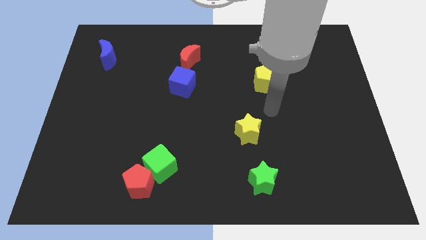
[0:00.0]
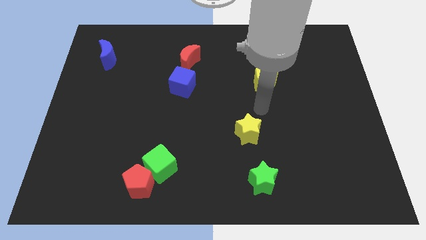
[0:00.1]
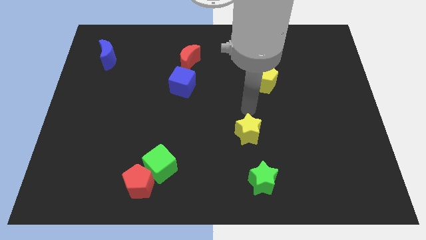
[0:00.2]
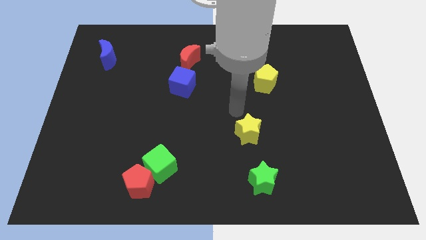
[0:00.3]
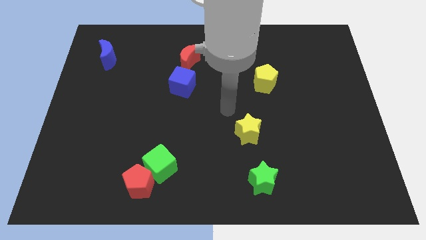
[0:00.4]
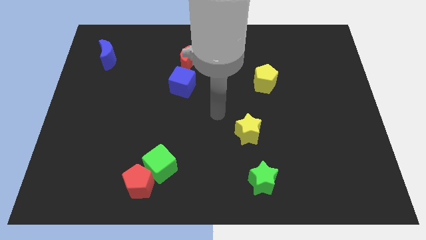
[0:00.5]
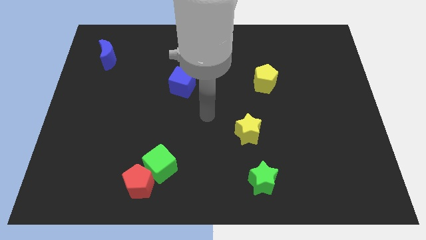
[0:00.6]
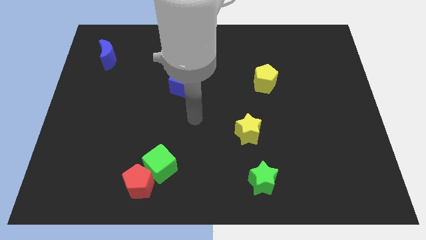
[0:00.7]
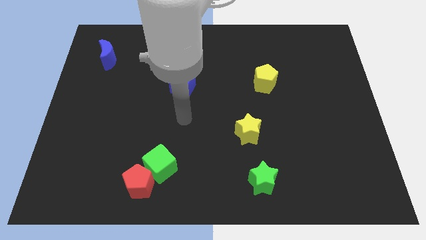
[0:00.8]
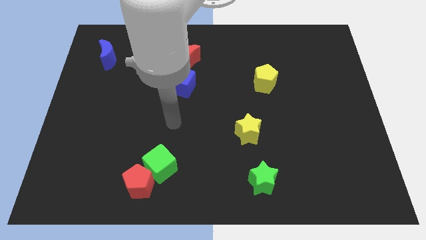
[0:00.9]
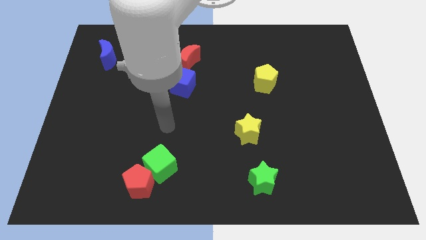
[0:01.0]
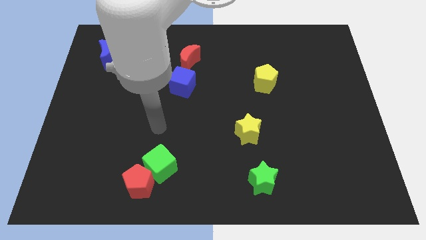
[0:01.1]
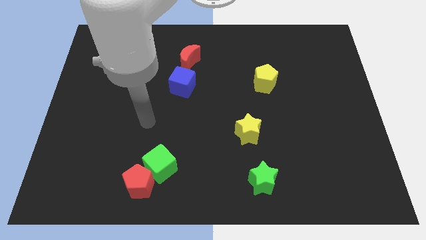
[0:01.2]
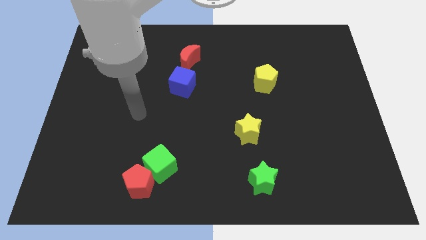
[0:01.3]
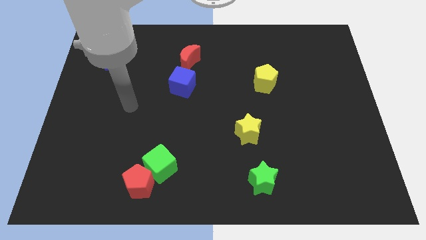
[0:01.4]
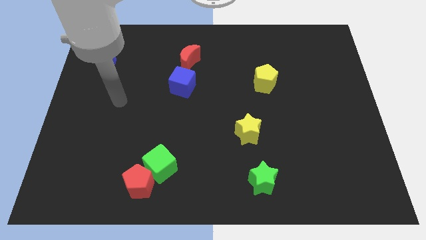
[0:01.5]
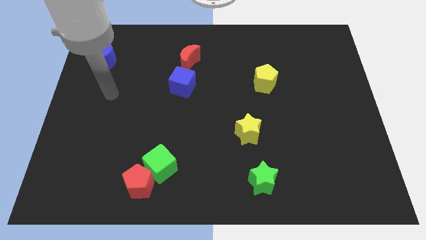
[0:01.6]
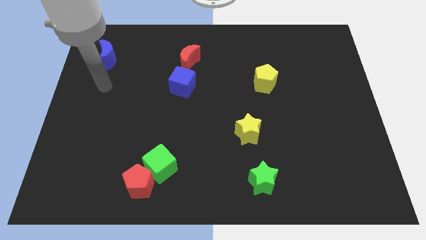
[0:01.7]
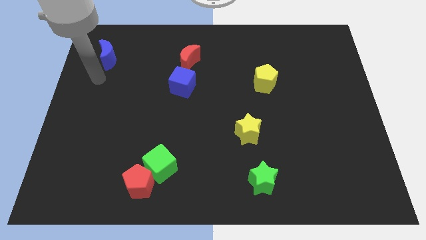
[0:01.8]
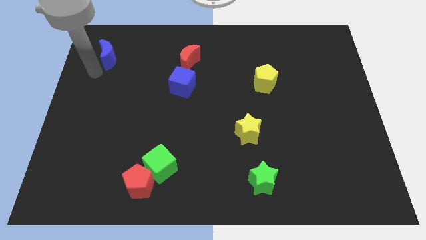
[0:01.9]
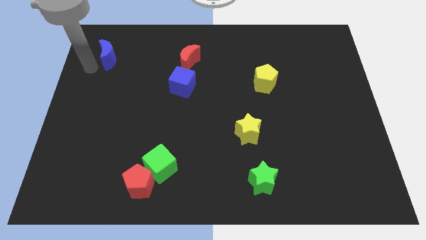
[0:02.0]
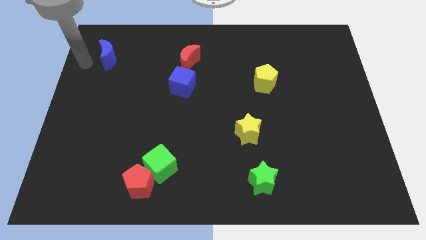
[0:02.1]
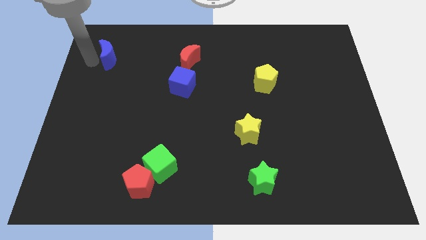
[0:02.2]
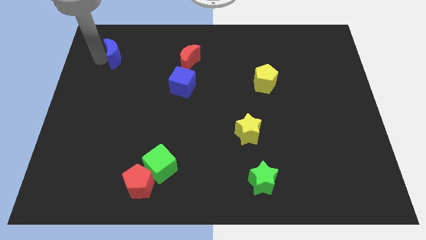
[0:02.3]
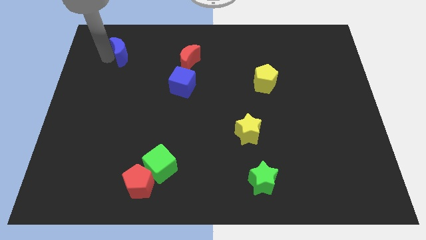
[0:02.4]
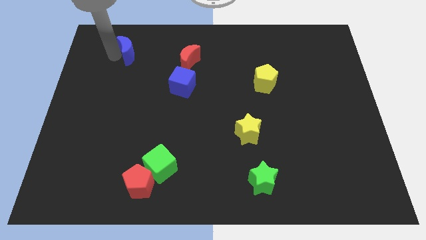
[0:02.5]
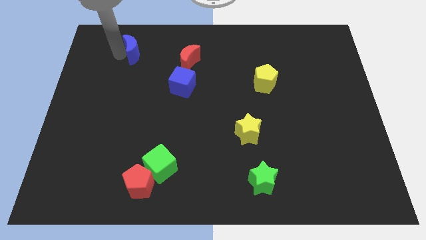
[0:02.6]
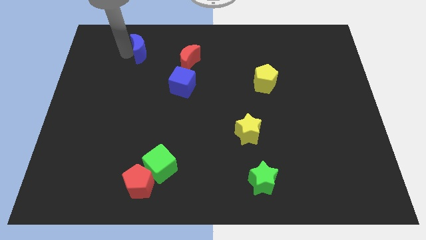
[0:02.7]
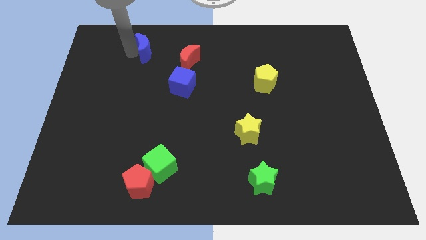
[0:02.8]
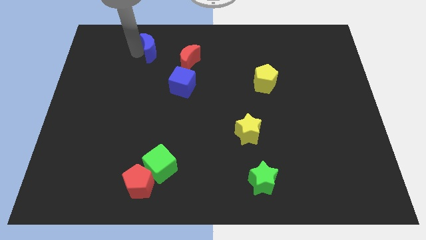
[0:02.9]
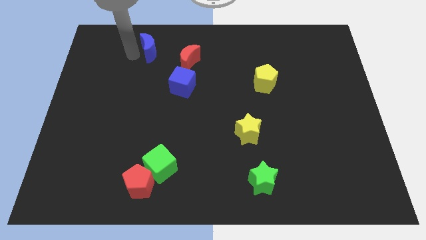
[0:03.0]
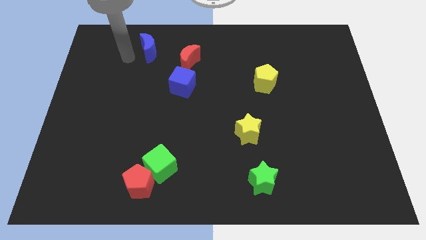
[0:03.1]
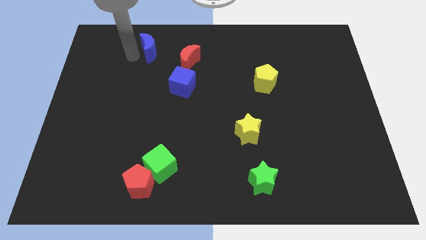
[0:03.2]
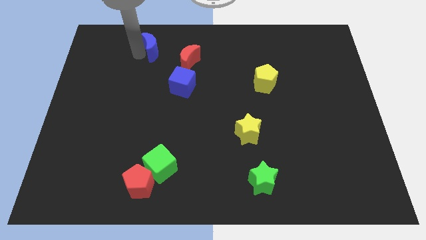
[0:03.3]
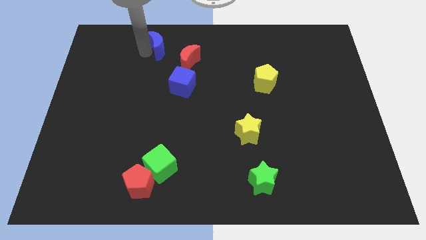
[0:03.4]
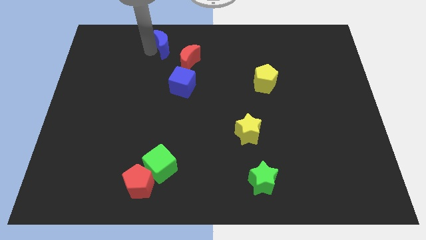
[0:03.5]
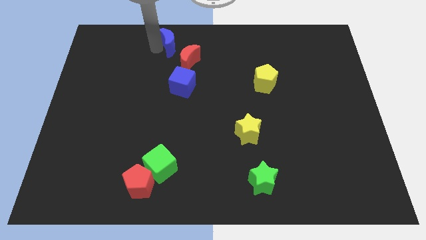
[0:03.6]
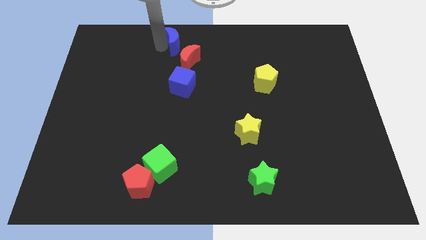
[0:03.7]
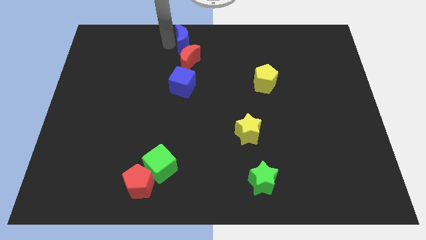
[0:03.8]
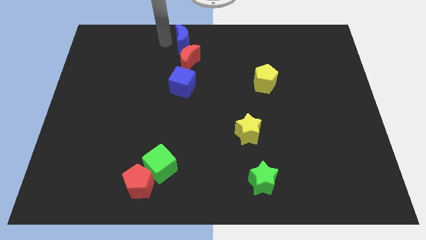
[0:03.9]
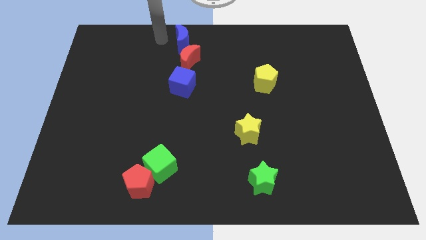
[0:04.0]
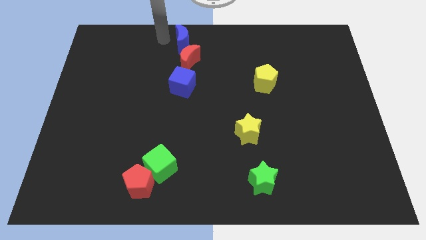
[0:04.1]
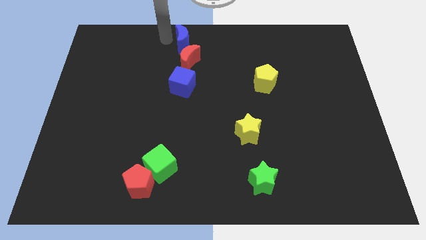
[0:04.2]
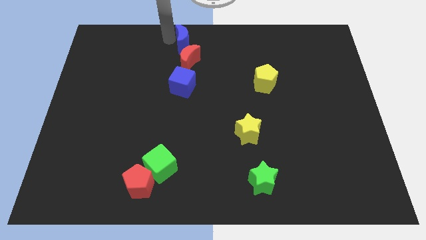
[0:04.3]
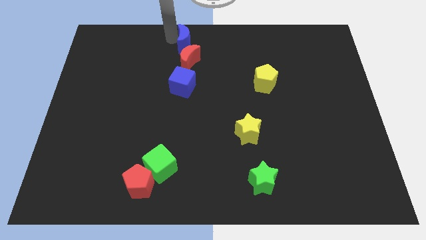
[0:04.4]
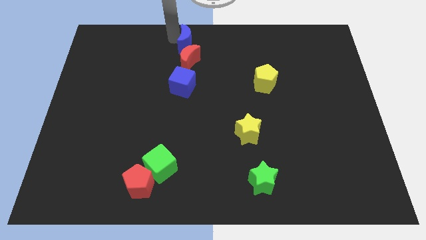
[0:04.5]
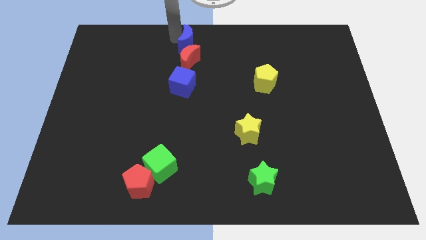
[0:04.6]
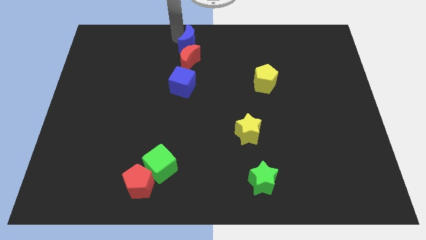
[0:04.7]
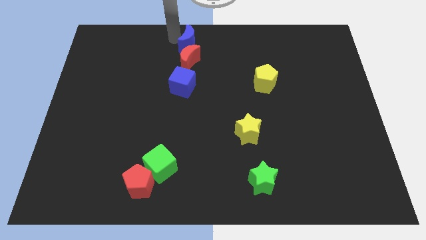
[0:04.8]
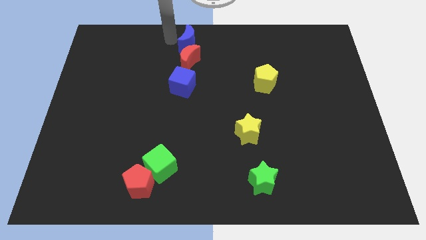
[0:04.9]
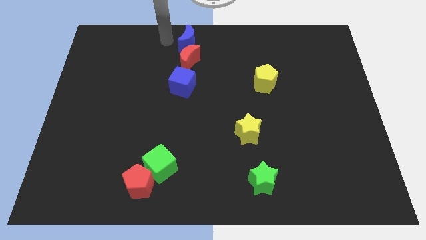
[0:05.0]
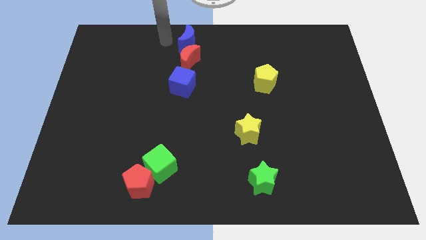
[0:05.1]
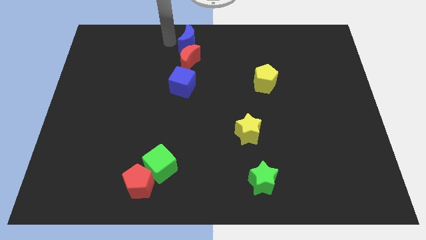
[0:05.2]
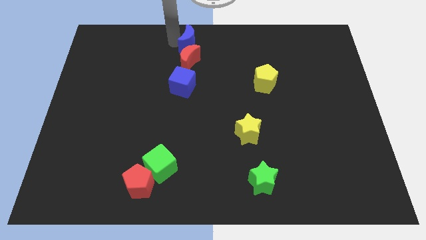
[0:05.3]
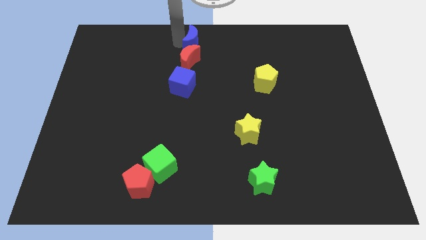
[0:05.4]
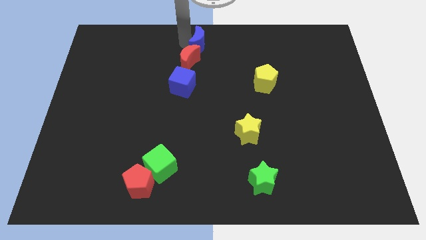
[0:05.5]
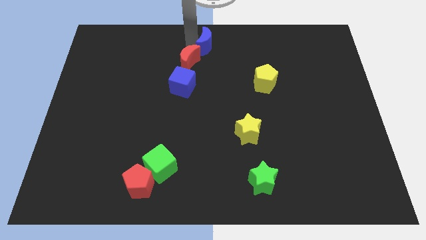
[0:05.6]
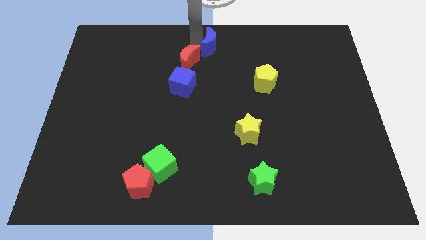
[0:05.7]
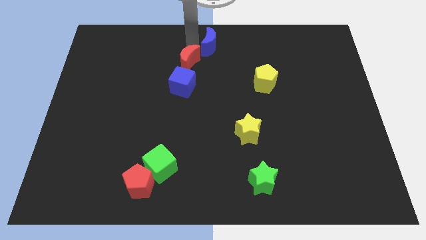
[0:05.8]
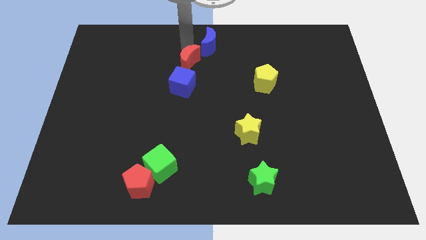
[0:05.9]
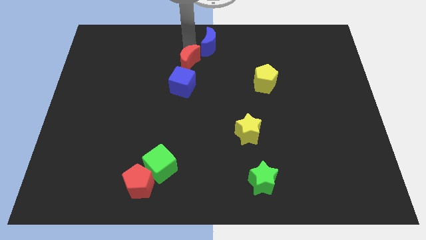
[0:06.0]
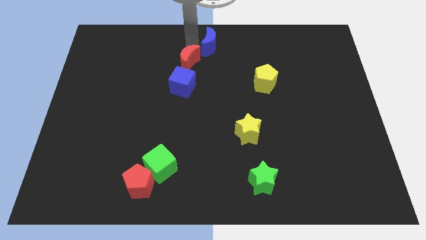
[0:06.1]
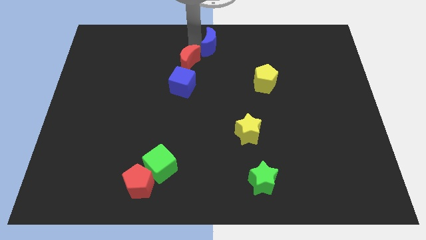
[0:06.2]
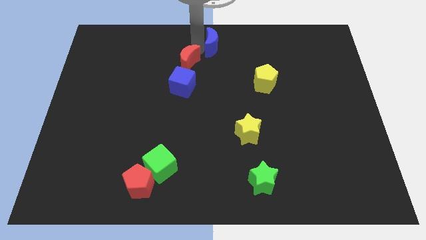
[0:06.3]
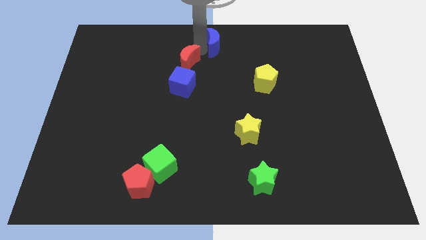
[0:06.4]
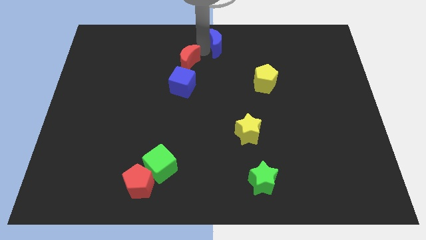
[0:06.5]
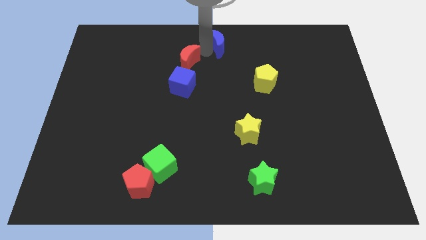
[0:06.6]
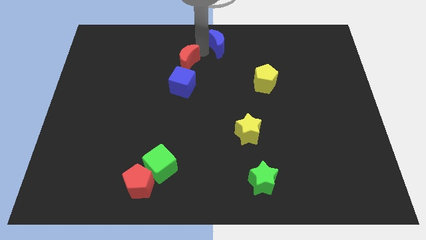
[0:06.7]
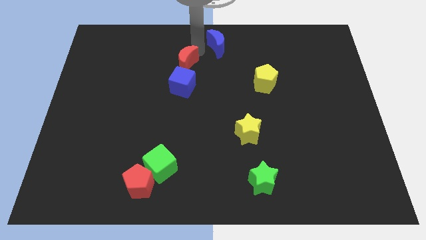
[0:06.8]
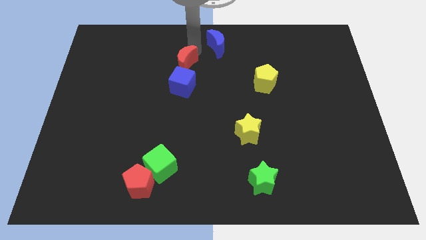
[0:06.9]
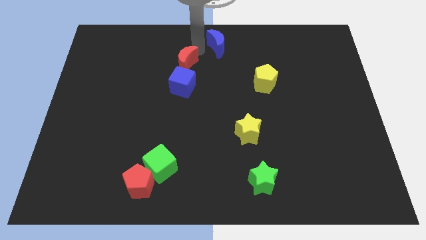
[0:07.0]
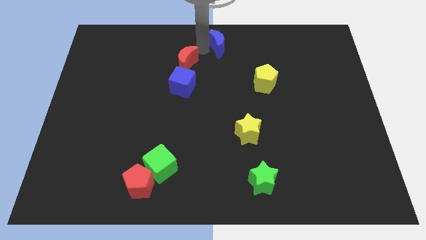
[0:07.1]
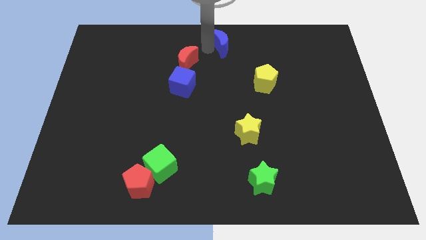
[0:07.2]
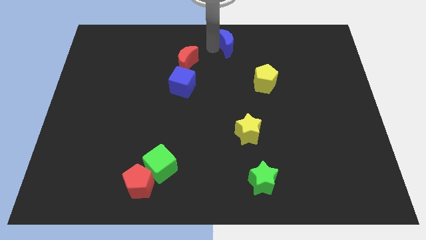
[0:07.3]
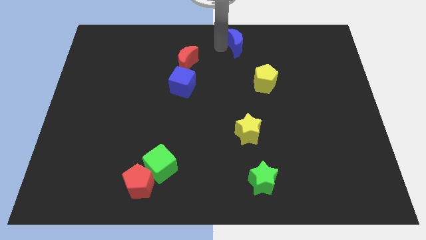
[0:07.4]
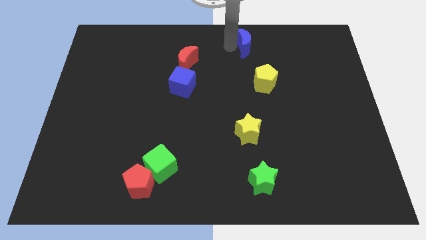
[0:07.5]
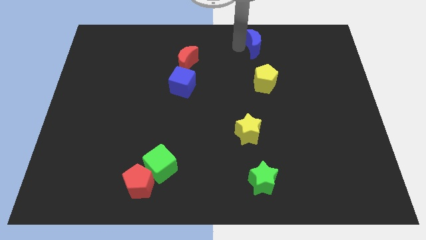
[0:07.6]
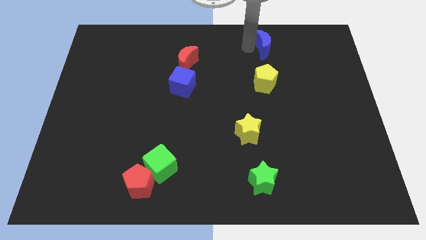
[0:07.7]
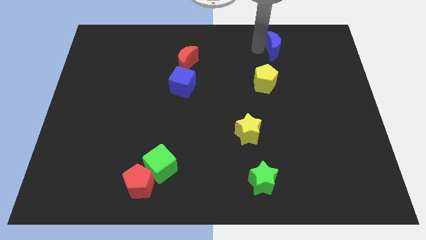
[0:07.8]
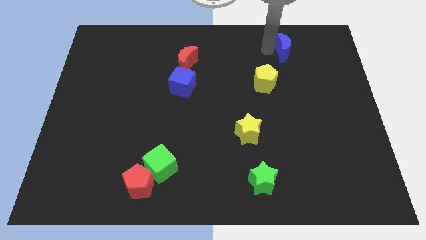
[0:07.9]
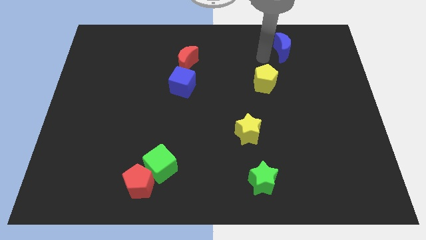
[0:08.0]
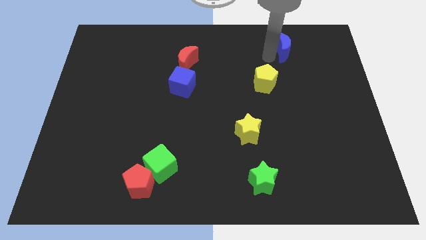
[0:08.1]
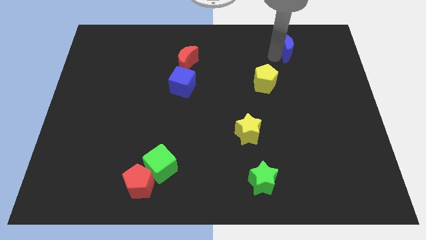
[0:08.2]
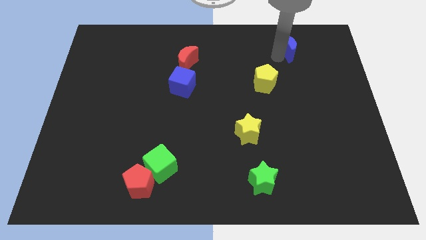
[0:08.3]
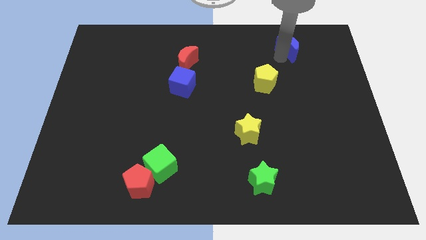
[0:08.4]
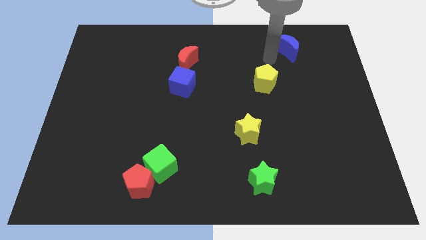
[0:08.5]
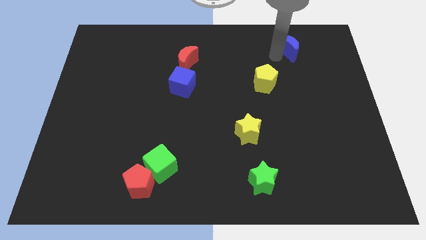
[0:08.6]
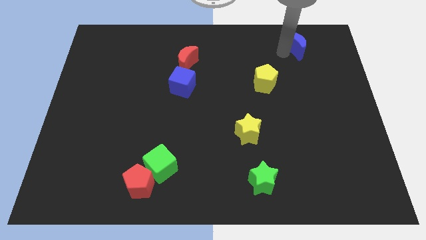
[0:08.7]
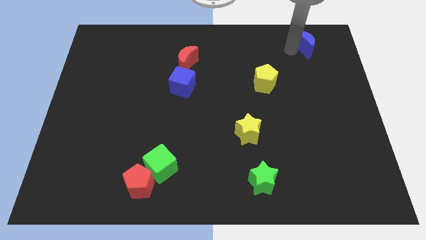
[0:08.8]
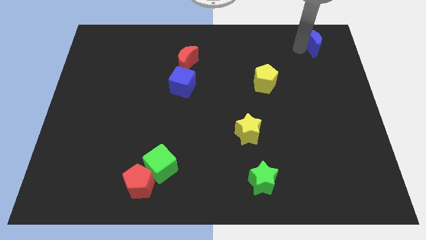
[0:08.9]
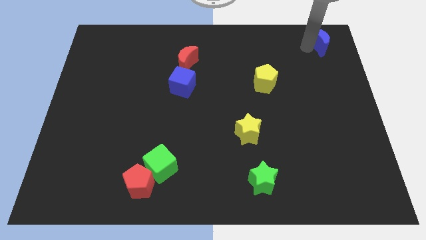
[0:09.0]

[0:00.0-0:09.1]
put the blue moon to the upper right corner
